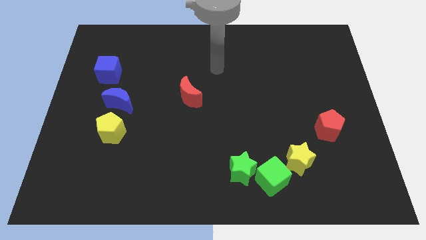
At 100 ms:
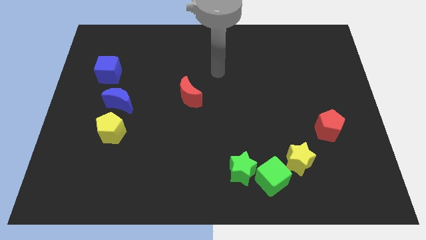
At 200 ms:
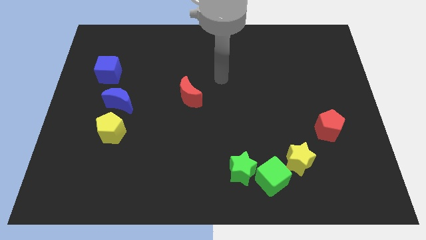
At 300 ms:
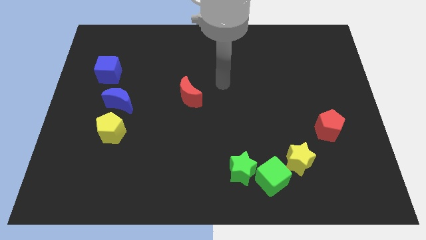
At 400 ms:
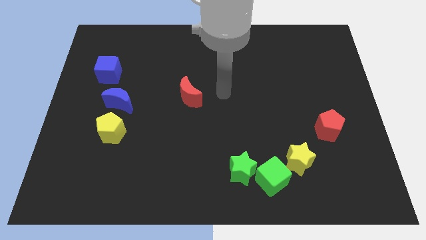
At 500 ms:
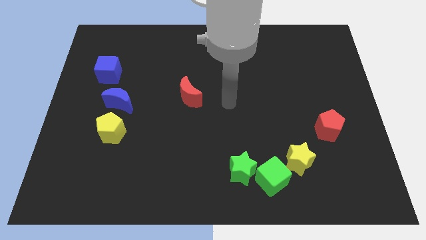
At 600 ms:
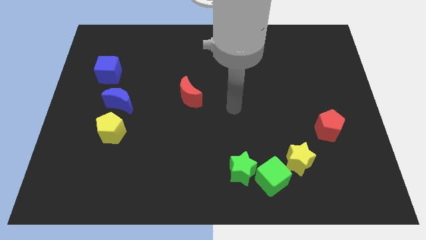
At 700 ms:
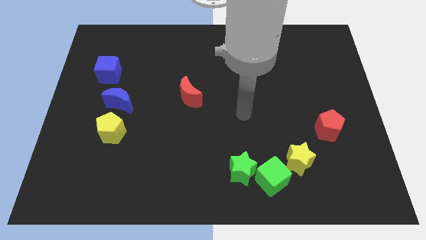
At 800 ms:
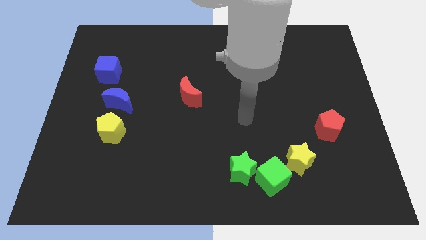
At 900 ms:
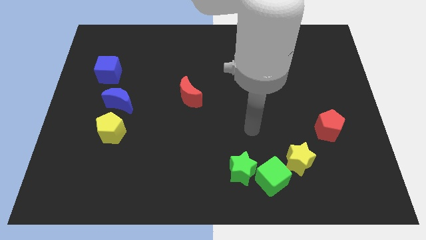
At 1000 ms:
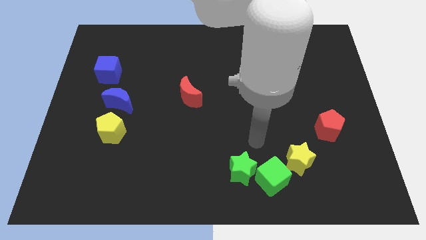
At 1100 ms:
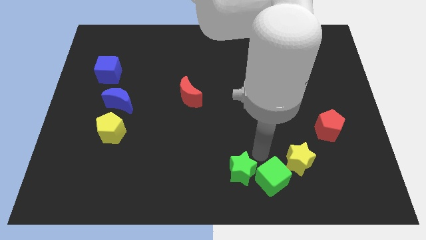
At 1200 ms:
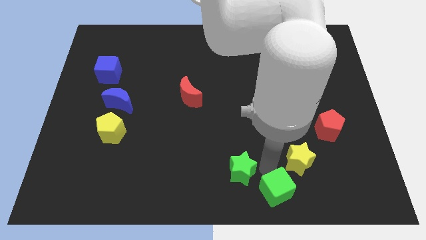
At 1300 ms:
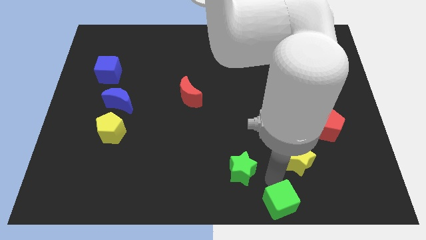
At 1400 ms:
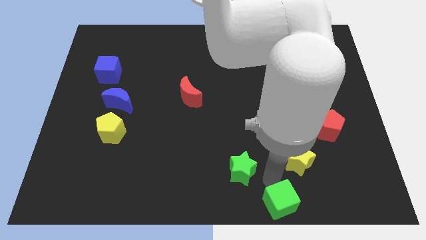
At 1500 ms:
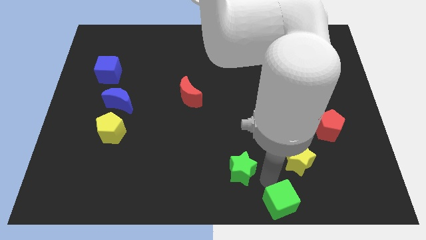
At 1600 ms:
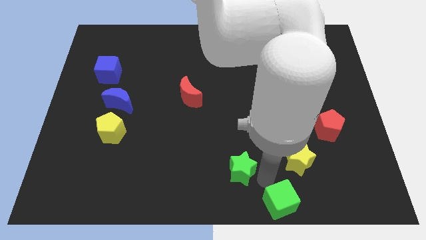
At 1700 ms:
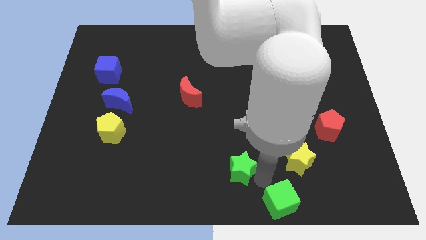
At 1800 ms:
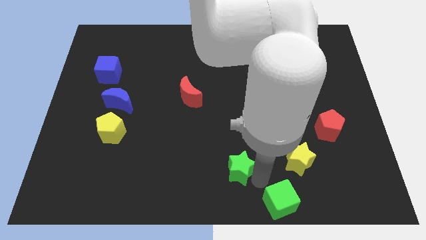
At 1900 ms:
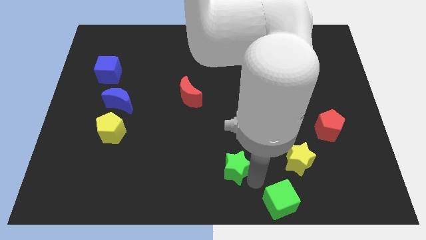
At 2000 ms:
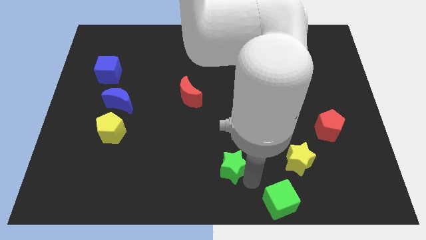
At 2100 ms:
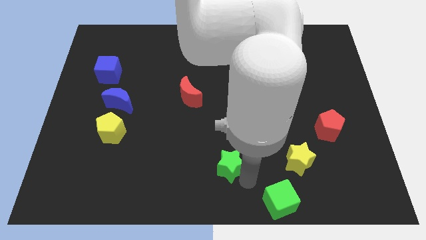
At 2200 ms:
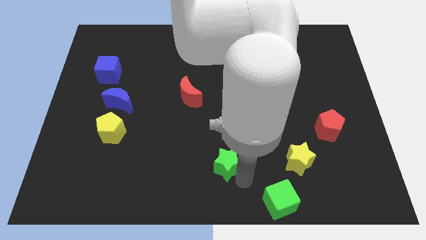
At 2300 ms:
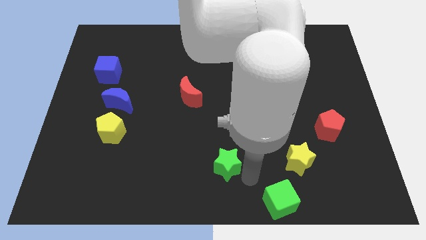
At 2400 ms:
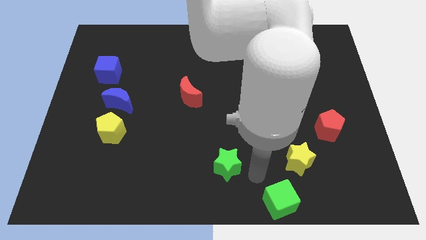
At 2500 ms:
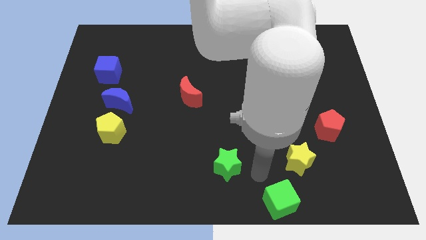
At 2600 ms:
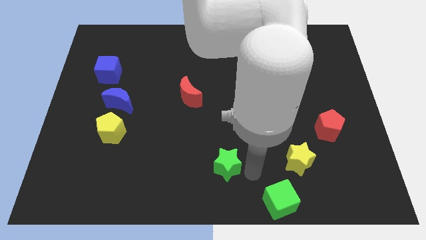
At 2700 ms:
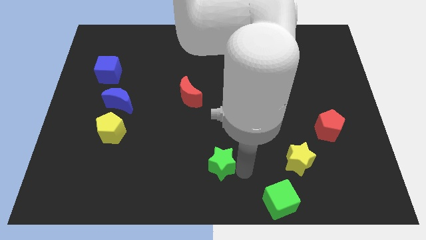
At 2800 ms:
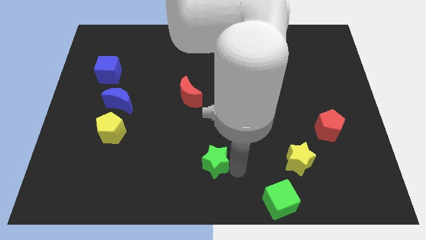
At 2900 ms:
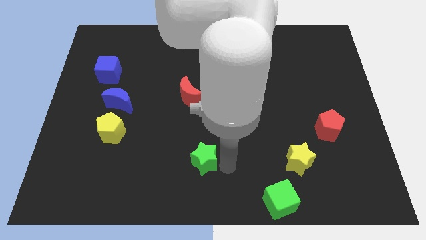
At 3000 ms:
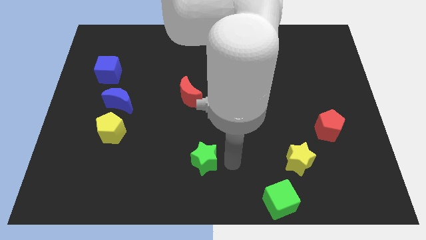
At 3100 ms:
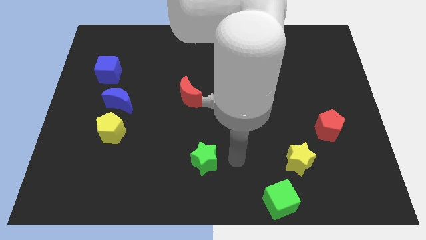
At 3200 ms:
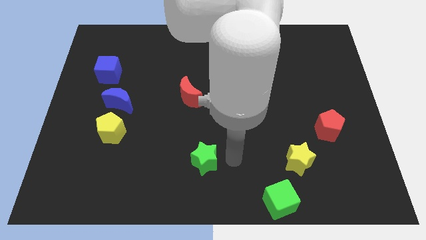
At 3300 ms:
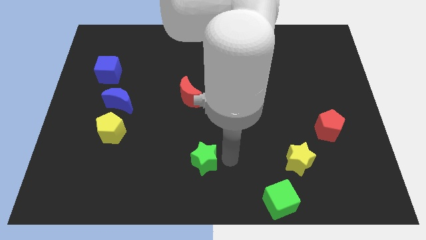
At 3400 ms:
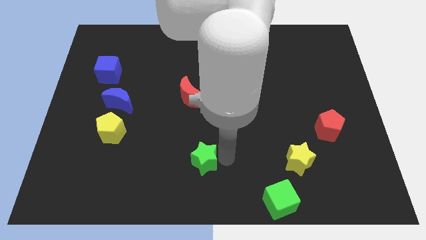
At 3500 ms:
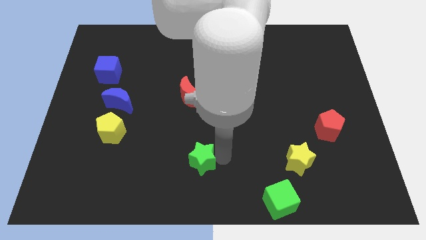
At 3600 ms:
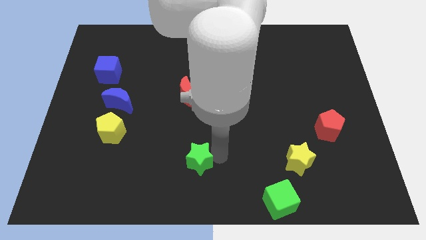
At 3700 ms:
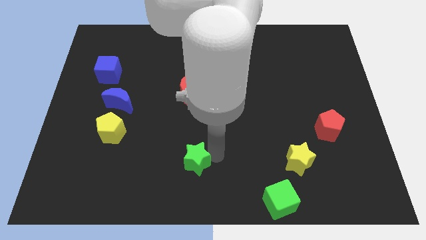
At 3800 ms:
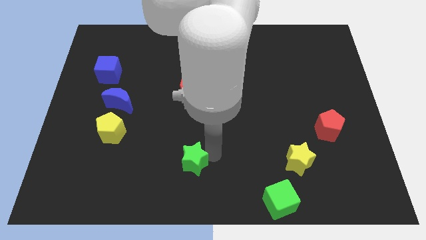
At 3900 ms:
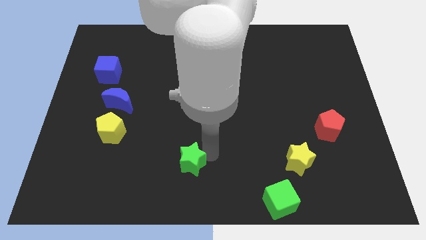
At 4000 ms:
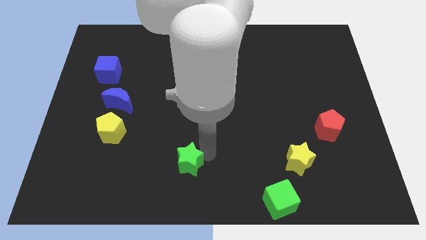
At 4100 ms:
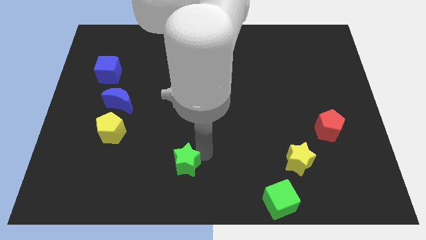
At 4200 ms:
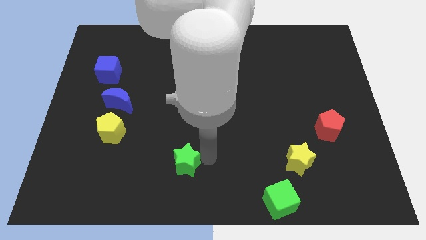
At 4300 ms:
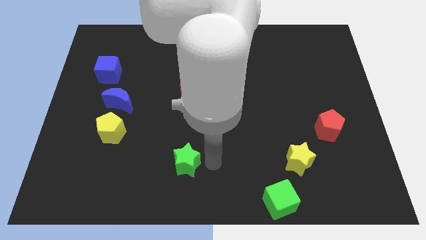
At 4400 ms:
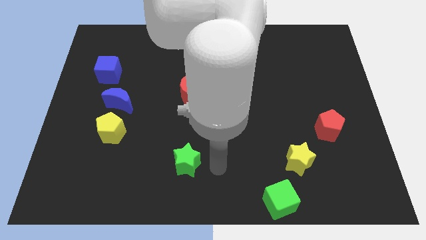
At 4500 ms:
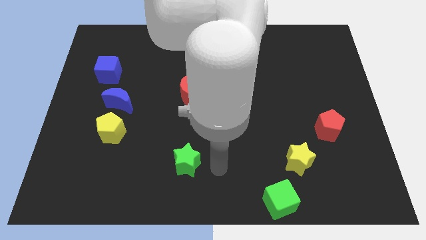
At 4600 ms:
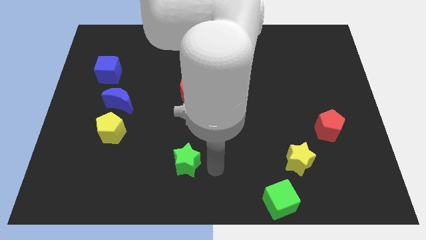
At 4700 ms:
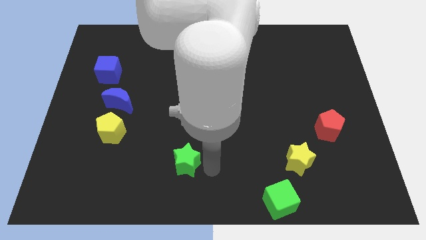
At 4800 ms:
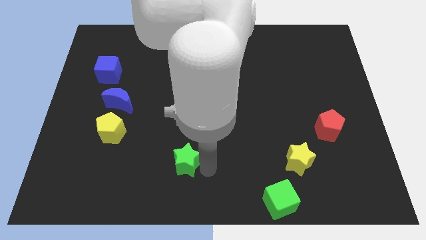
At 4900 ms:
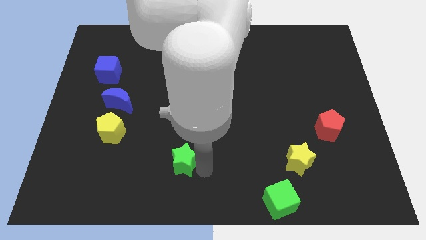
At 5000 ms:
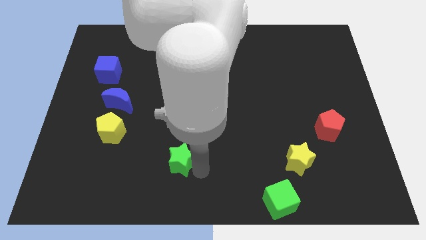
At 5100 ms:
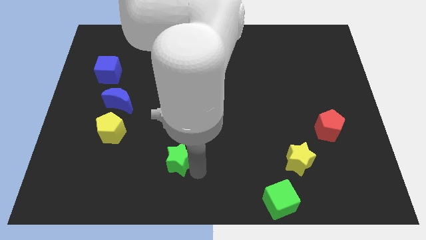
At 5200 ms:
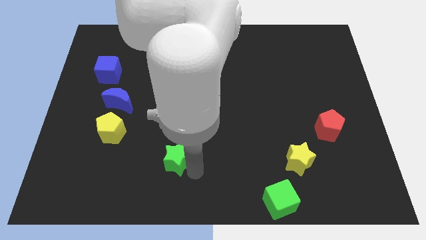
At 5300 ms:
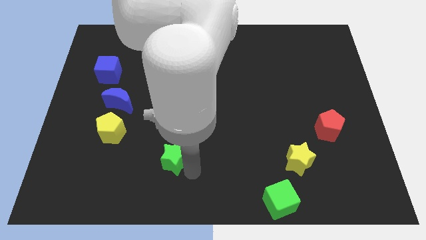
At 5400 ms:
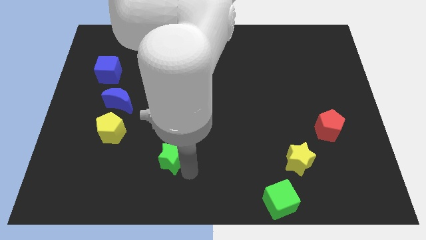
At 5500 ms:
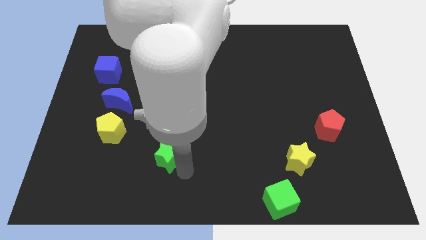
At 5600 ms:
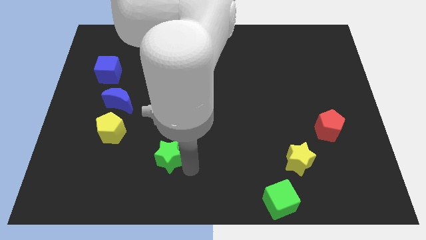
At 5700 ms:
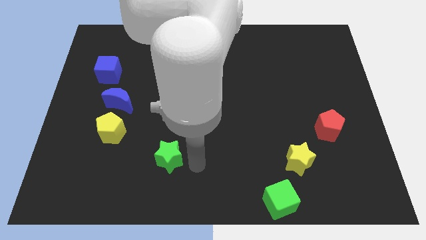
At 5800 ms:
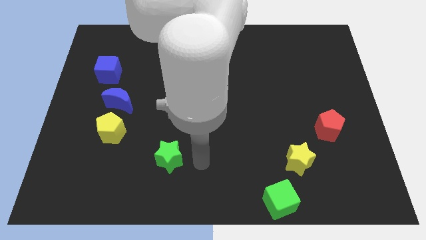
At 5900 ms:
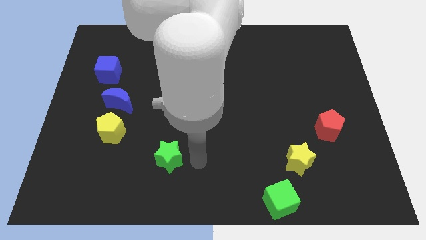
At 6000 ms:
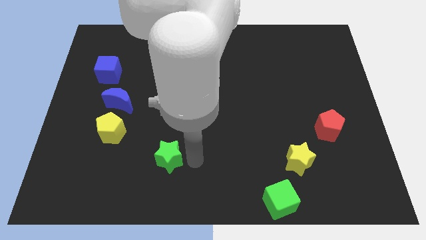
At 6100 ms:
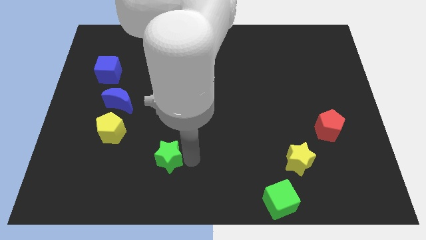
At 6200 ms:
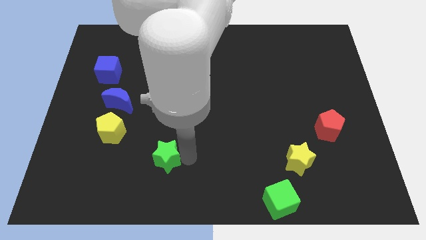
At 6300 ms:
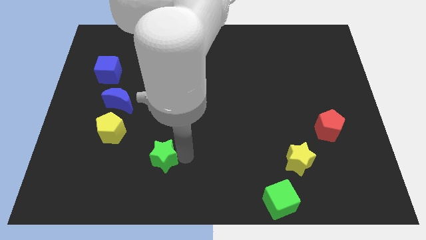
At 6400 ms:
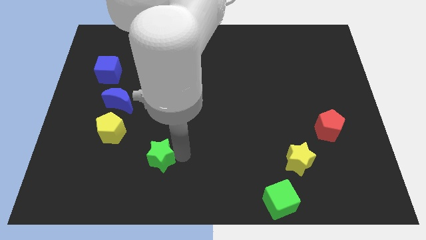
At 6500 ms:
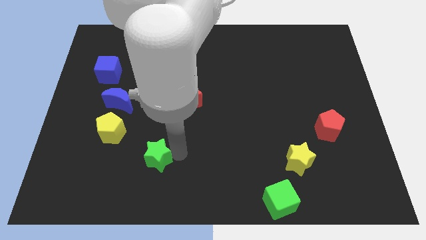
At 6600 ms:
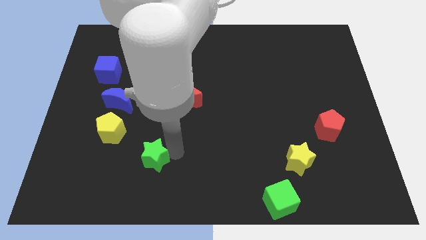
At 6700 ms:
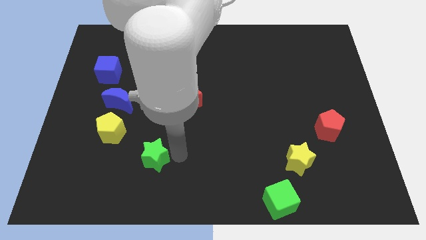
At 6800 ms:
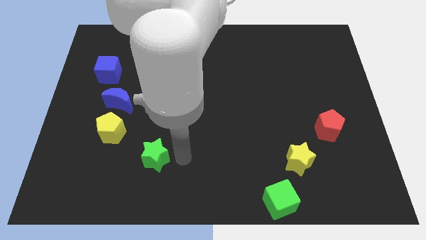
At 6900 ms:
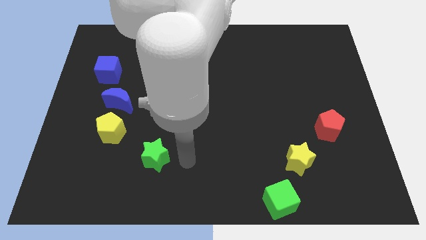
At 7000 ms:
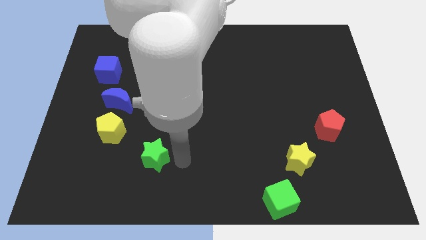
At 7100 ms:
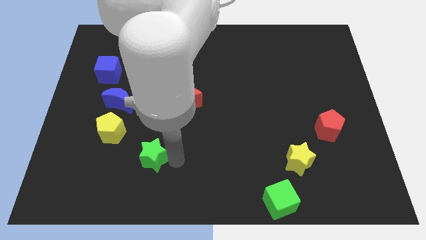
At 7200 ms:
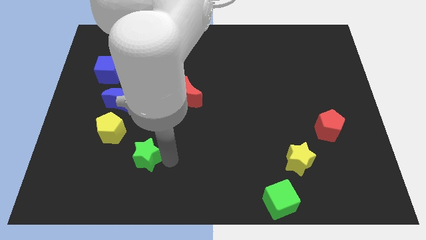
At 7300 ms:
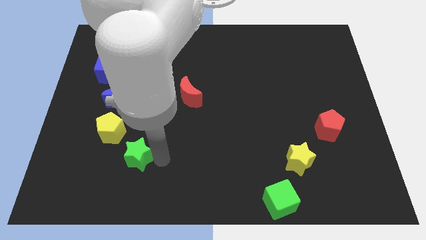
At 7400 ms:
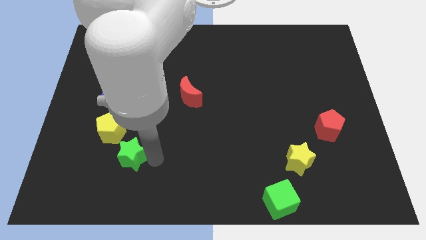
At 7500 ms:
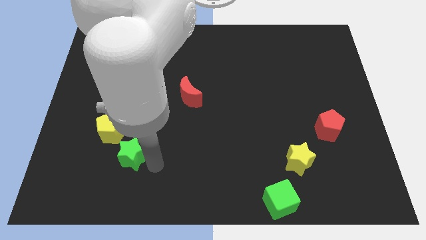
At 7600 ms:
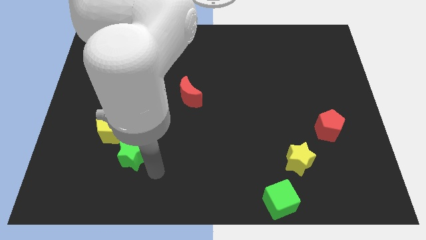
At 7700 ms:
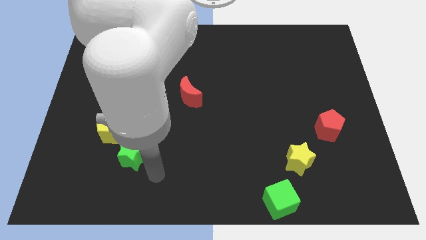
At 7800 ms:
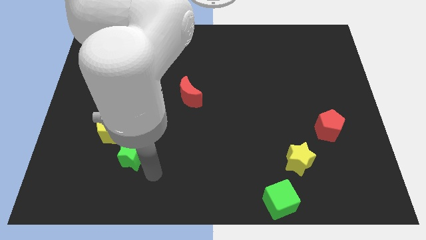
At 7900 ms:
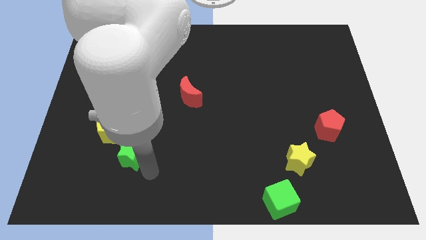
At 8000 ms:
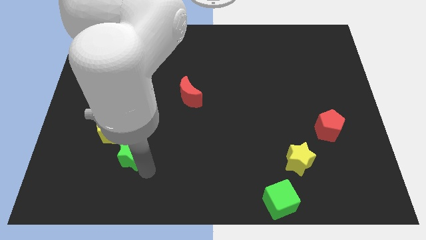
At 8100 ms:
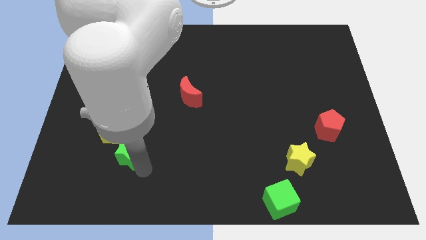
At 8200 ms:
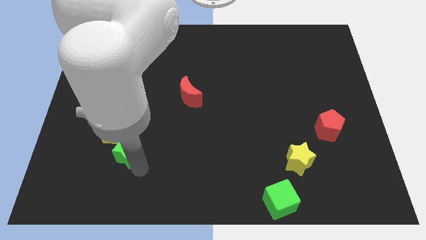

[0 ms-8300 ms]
push the green star below the blue moon
